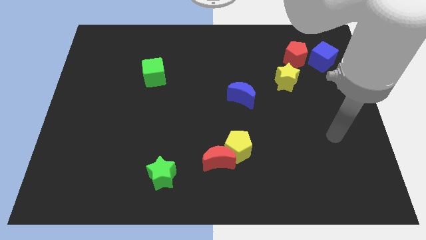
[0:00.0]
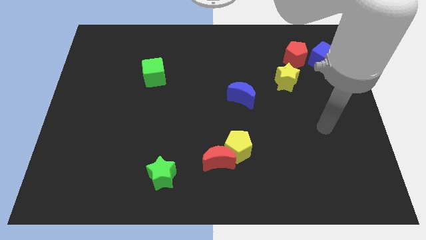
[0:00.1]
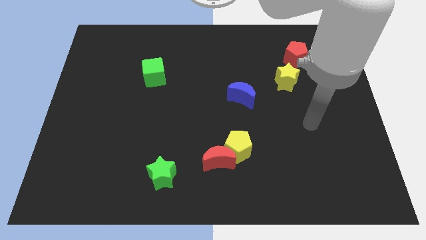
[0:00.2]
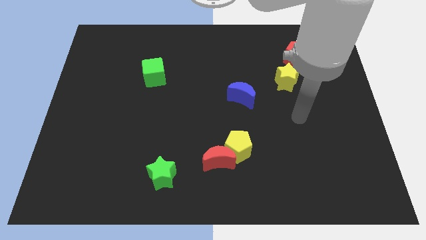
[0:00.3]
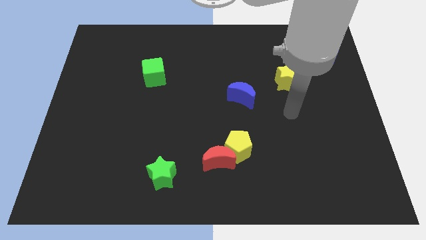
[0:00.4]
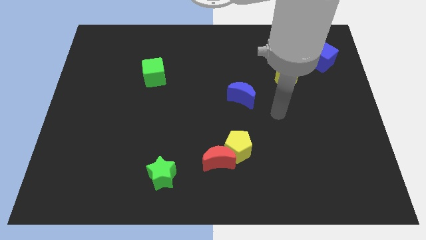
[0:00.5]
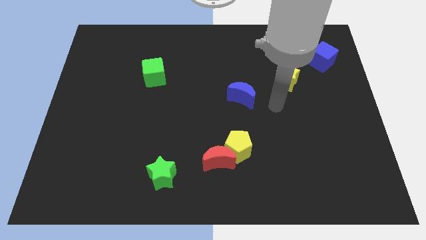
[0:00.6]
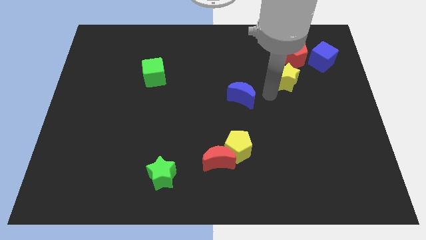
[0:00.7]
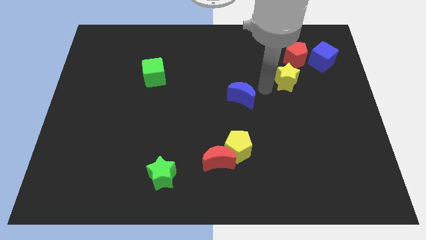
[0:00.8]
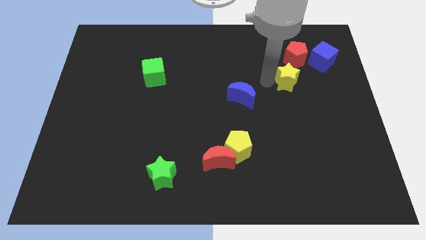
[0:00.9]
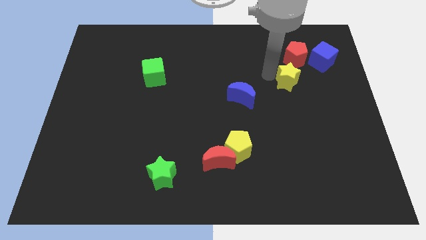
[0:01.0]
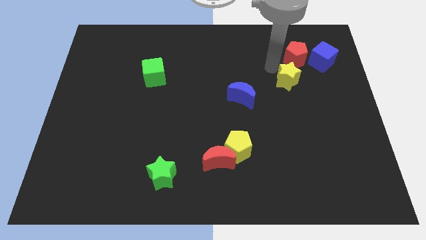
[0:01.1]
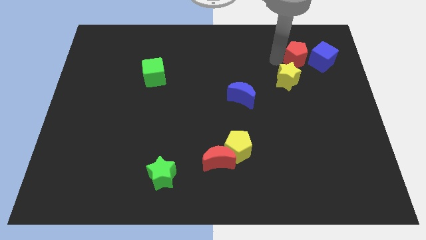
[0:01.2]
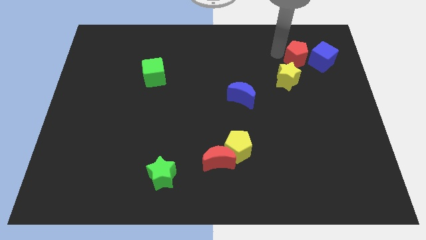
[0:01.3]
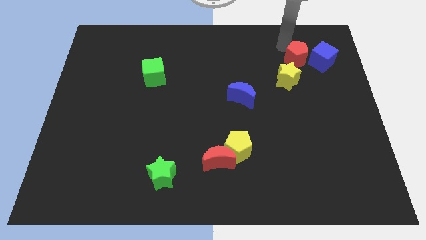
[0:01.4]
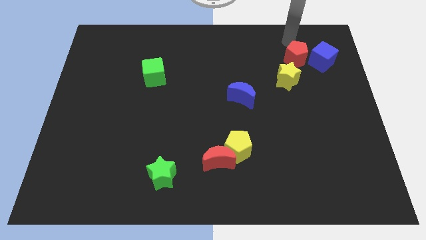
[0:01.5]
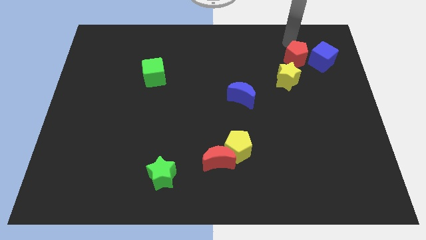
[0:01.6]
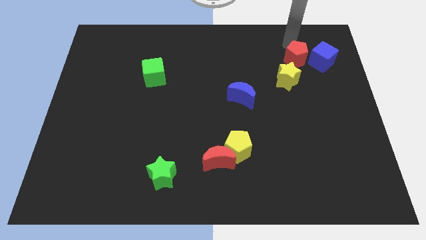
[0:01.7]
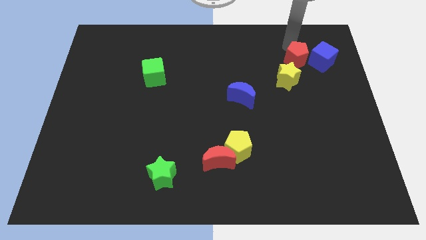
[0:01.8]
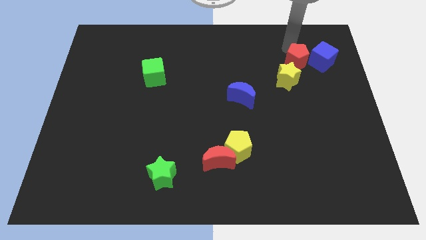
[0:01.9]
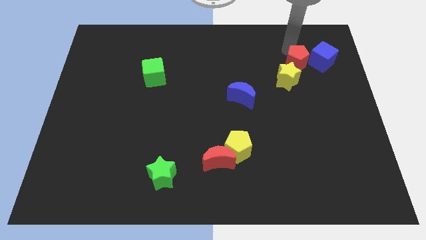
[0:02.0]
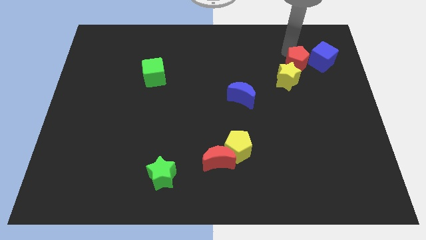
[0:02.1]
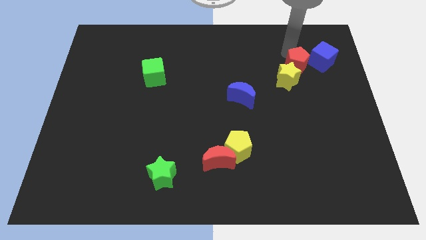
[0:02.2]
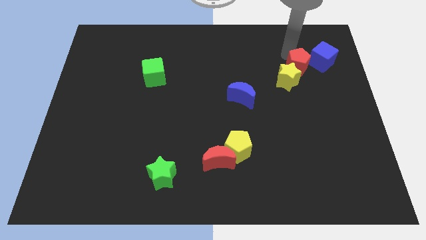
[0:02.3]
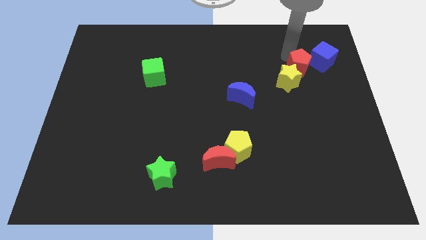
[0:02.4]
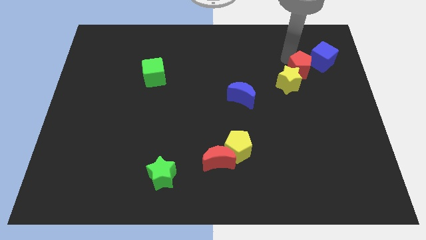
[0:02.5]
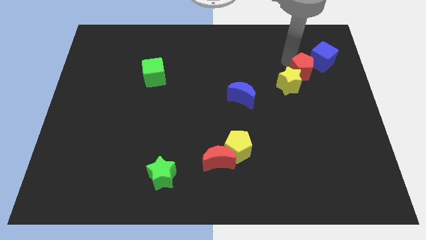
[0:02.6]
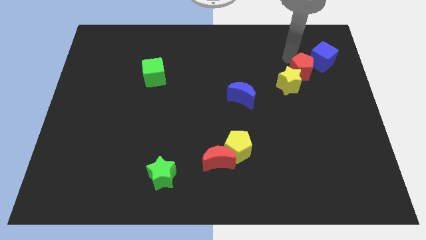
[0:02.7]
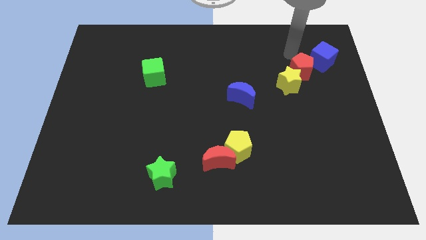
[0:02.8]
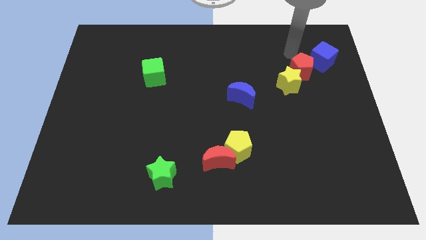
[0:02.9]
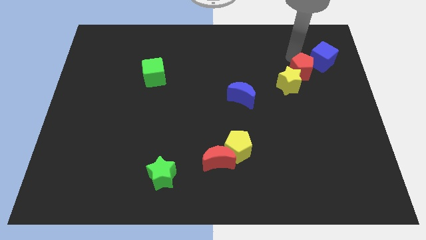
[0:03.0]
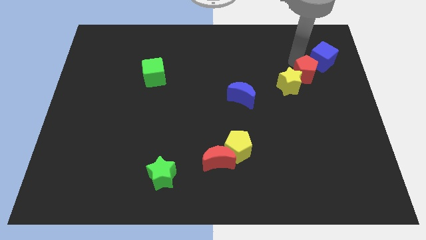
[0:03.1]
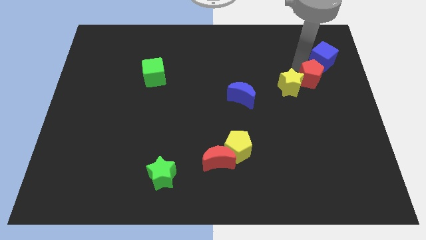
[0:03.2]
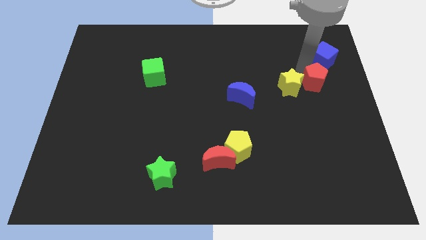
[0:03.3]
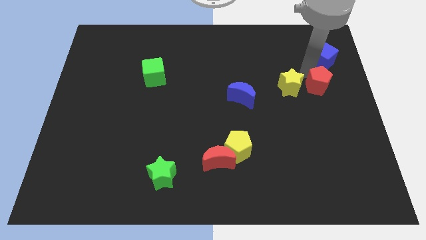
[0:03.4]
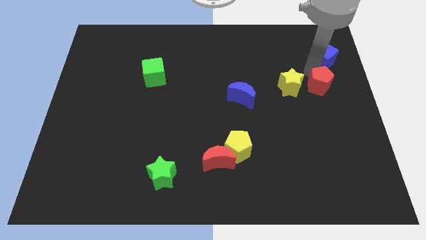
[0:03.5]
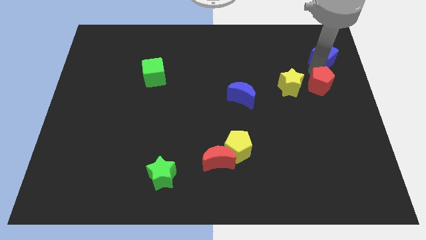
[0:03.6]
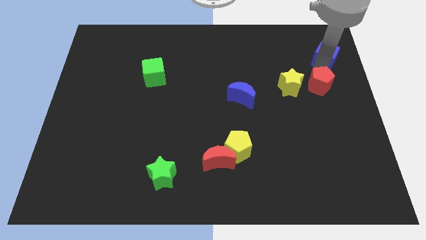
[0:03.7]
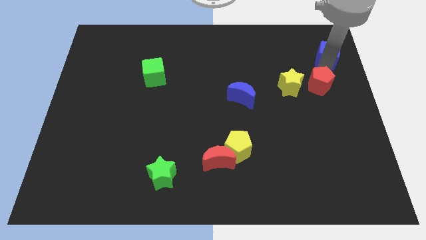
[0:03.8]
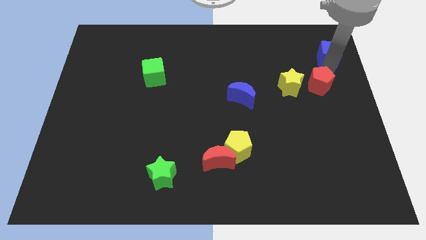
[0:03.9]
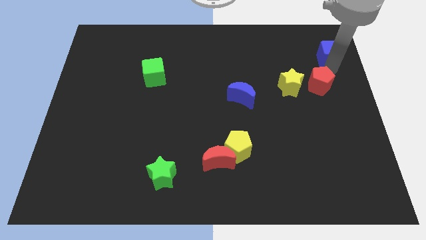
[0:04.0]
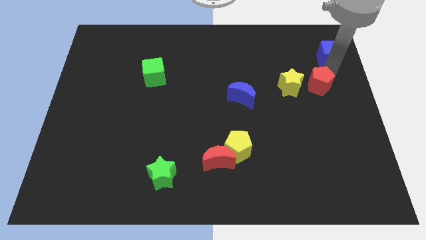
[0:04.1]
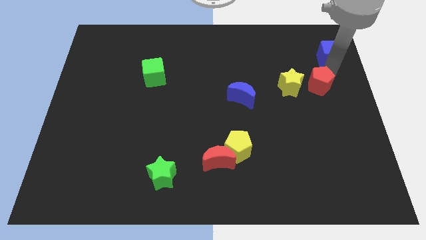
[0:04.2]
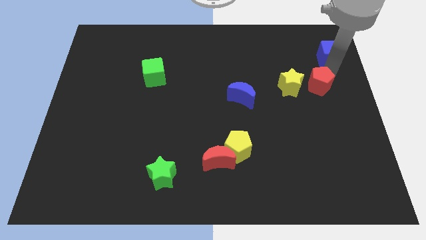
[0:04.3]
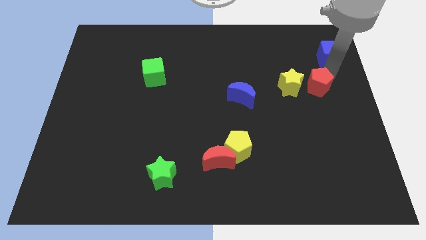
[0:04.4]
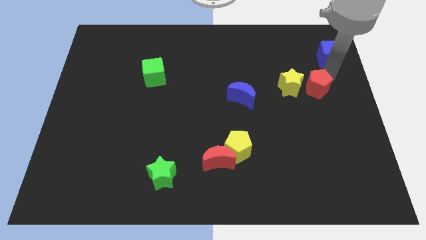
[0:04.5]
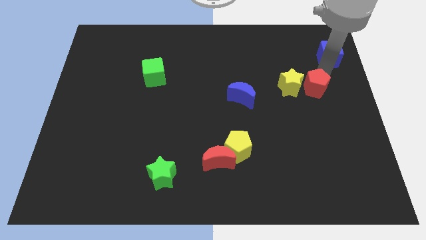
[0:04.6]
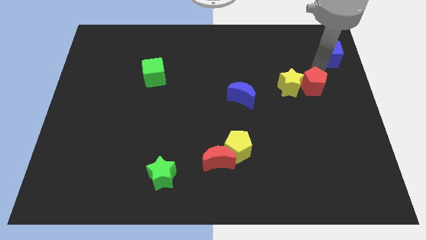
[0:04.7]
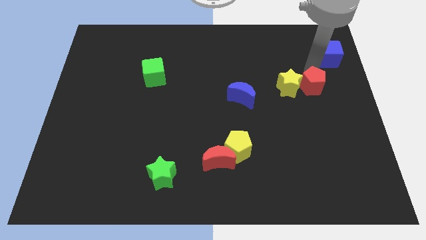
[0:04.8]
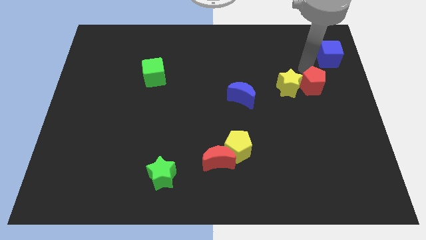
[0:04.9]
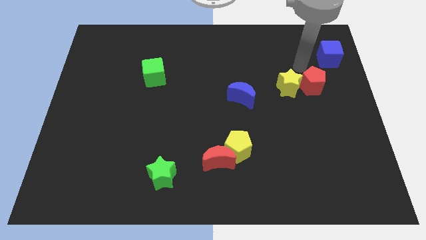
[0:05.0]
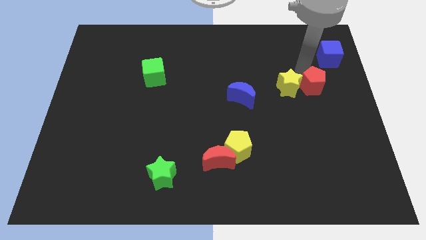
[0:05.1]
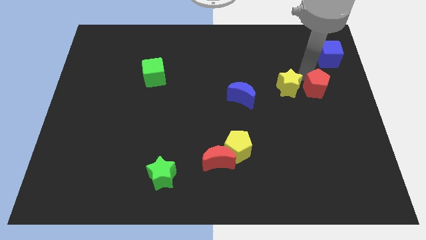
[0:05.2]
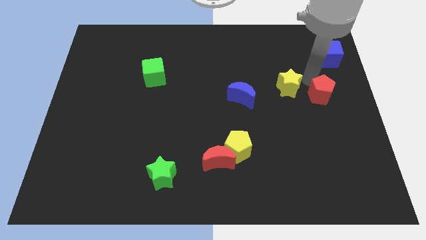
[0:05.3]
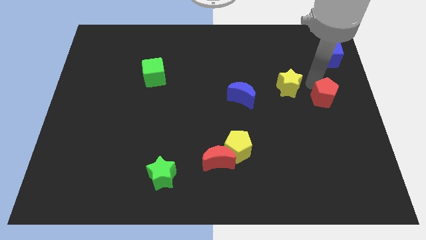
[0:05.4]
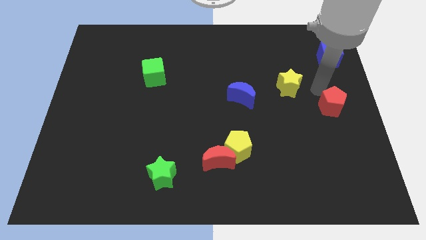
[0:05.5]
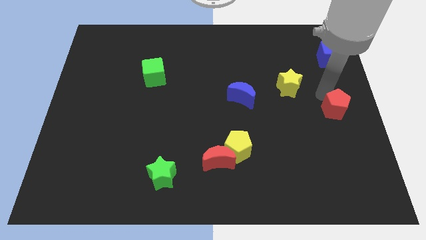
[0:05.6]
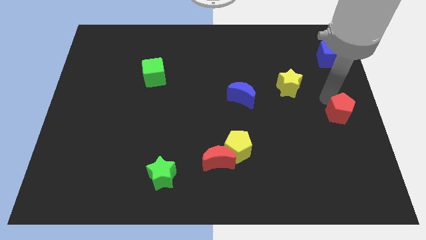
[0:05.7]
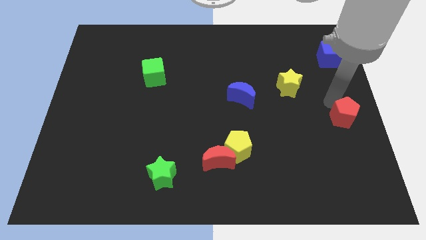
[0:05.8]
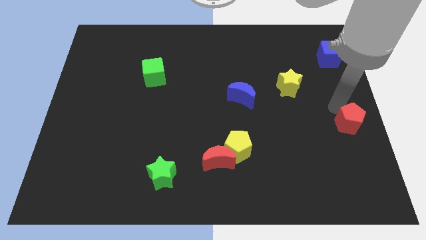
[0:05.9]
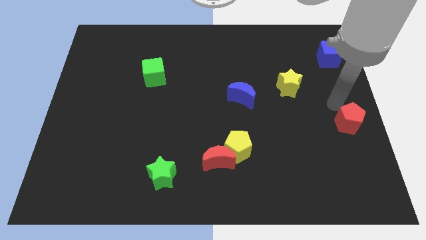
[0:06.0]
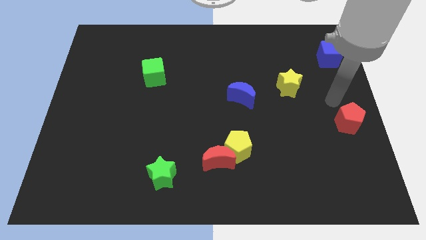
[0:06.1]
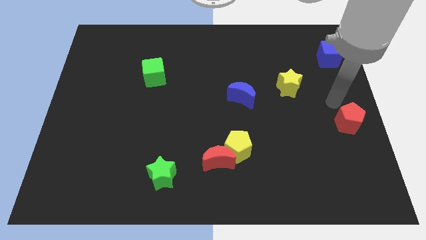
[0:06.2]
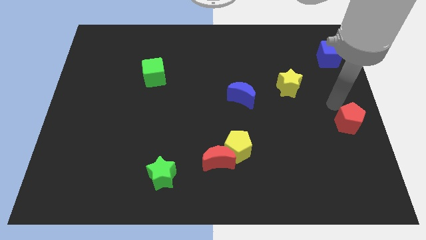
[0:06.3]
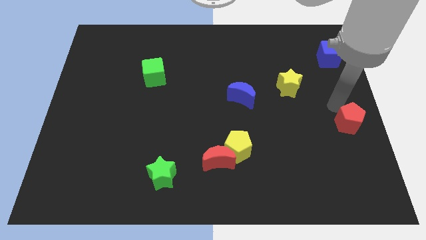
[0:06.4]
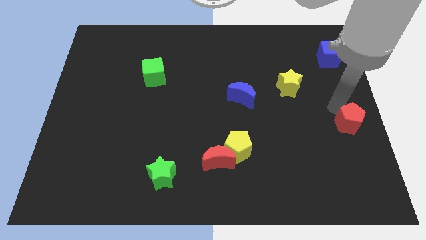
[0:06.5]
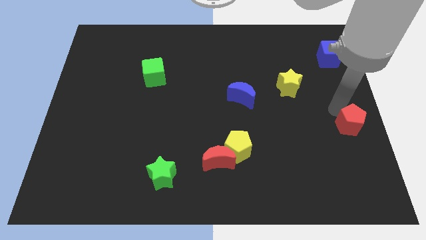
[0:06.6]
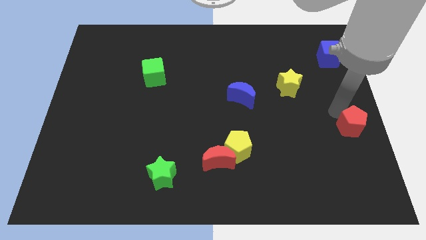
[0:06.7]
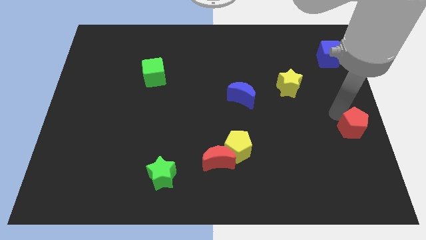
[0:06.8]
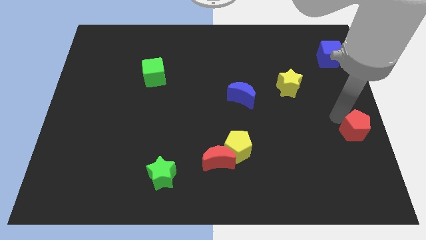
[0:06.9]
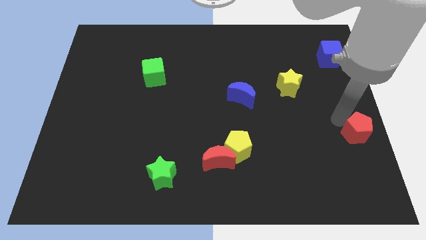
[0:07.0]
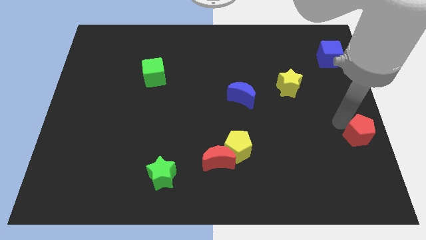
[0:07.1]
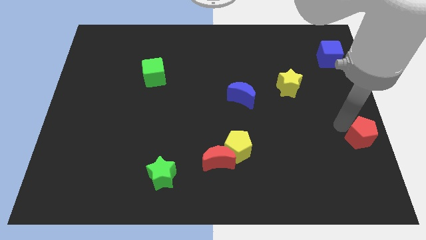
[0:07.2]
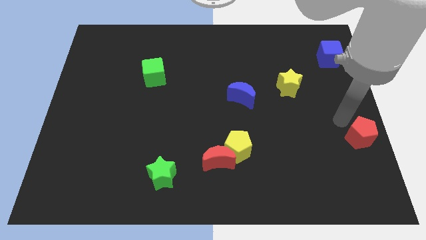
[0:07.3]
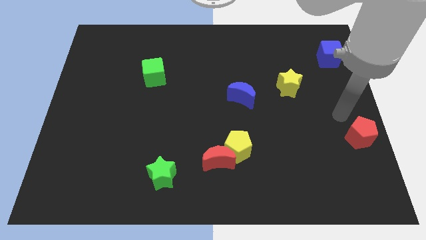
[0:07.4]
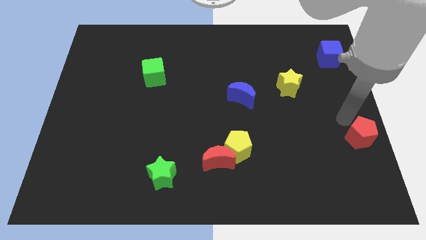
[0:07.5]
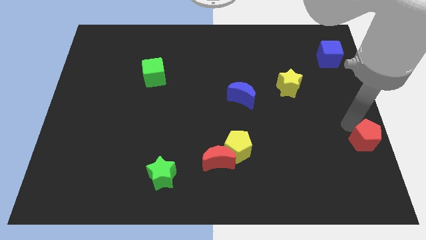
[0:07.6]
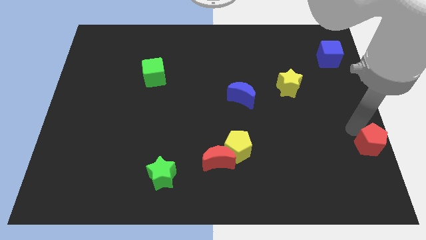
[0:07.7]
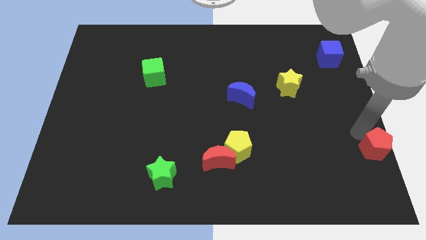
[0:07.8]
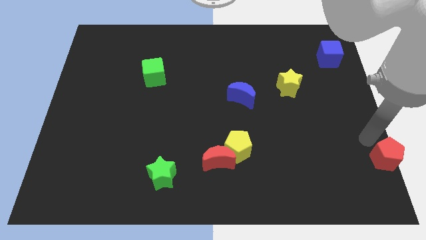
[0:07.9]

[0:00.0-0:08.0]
put the red pentagon to the bottom right corner
